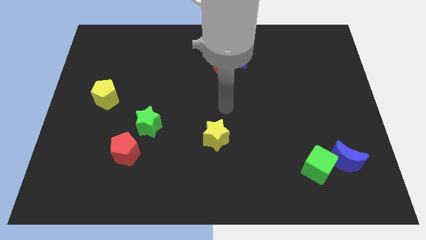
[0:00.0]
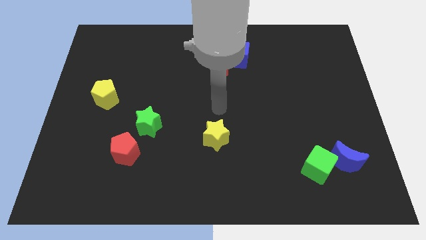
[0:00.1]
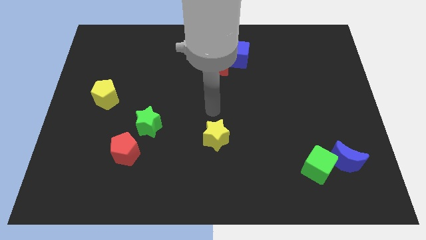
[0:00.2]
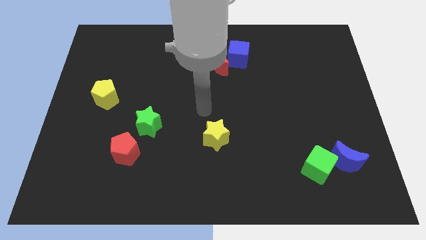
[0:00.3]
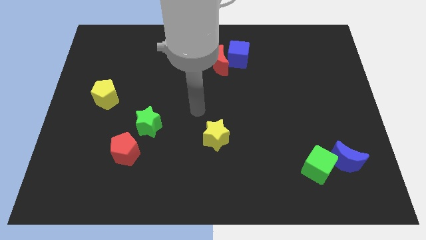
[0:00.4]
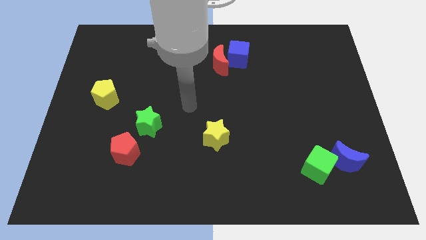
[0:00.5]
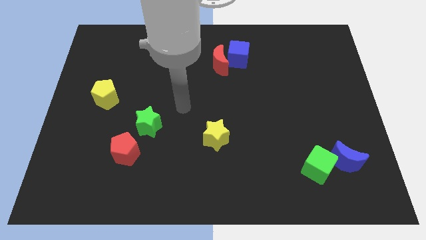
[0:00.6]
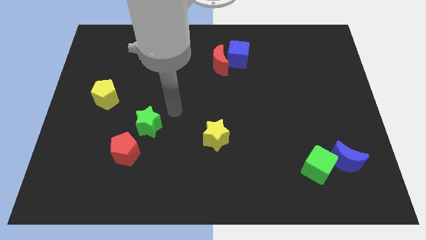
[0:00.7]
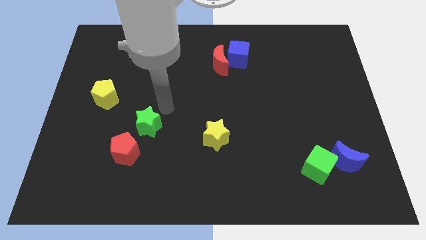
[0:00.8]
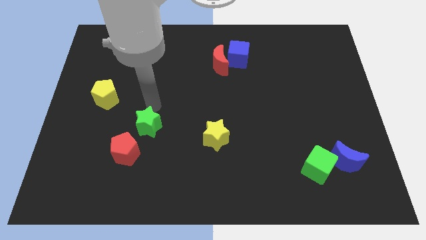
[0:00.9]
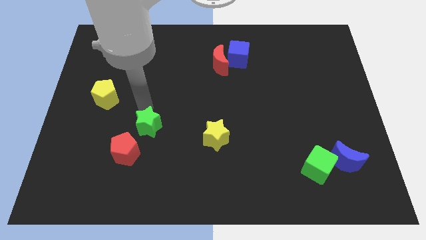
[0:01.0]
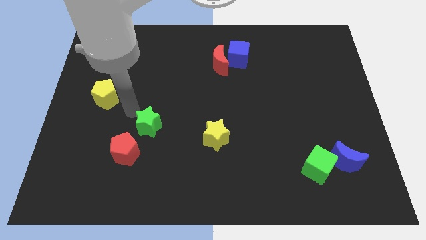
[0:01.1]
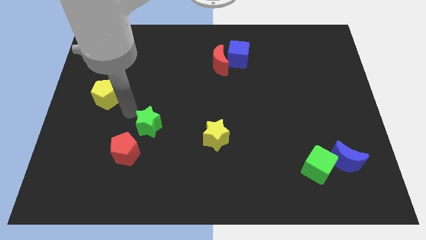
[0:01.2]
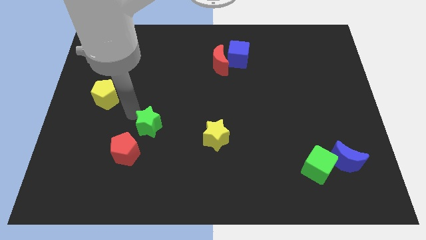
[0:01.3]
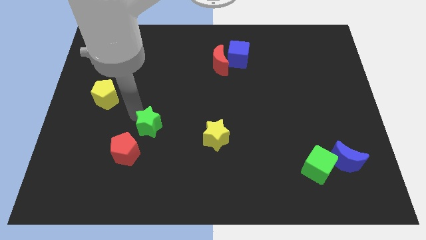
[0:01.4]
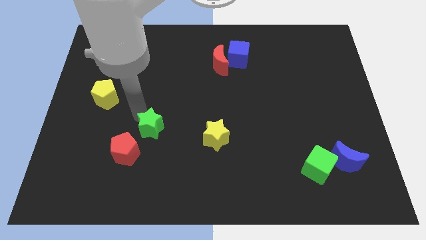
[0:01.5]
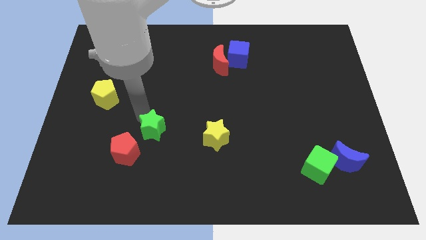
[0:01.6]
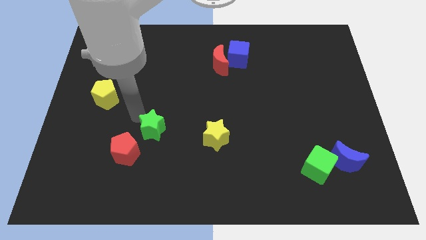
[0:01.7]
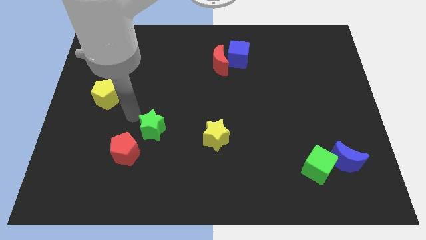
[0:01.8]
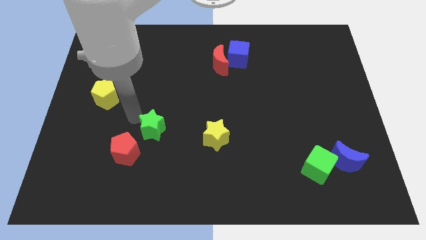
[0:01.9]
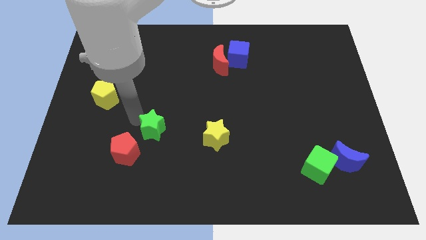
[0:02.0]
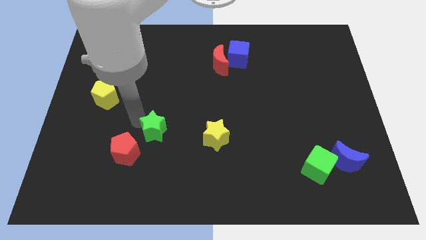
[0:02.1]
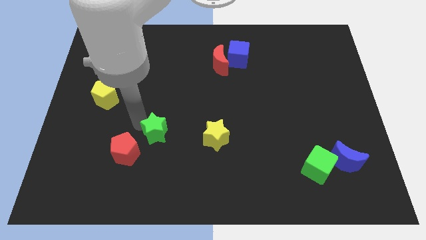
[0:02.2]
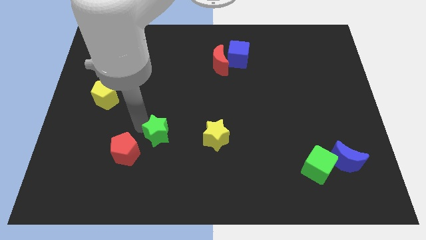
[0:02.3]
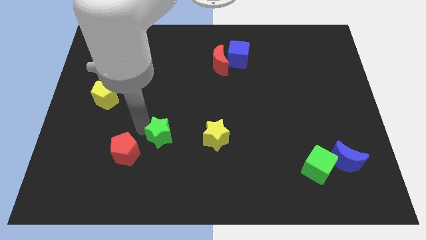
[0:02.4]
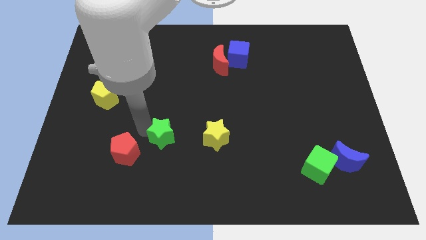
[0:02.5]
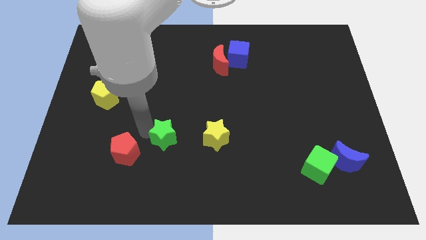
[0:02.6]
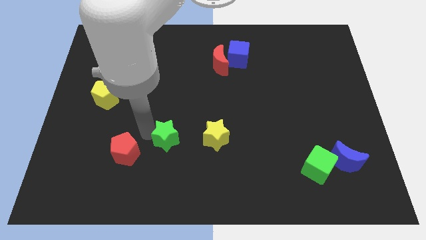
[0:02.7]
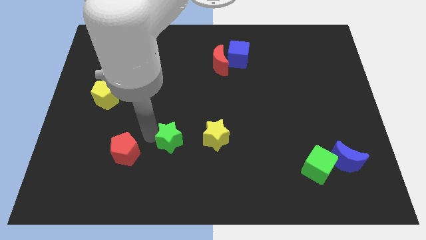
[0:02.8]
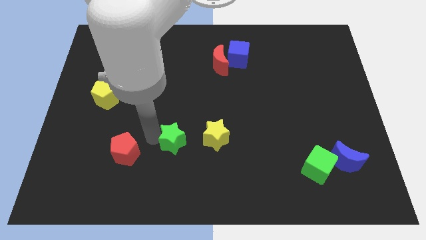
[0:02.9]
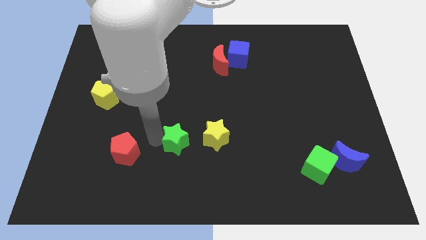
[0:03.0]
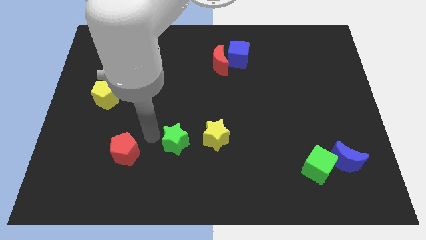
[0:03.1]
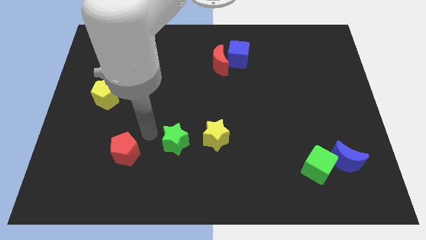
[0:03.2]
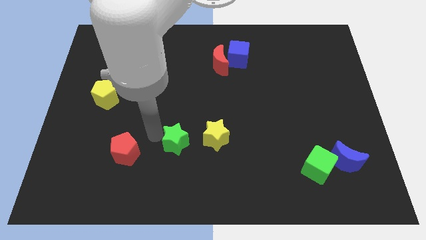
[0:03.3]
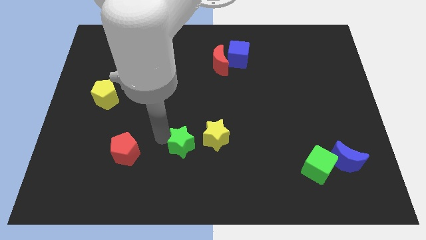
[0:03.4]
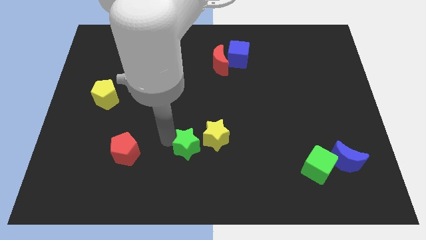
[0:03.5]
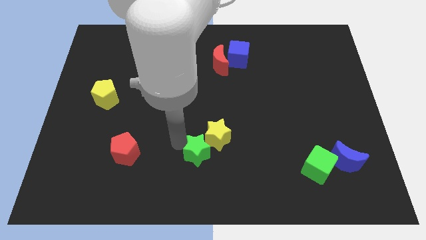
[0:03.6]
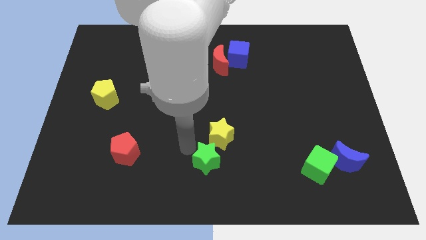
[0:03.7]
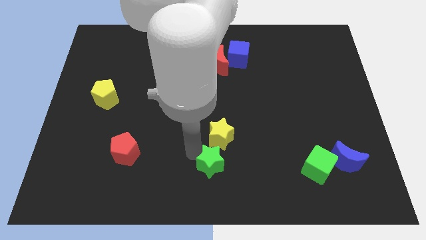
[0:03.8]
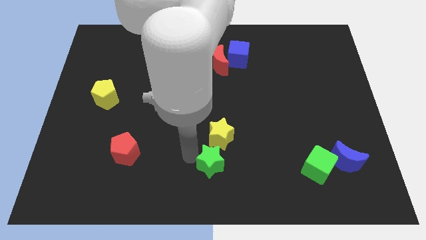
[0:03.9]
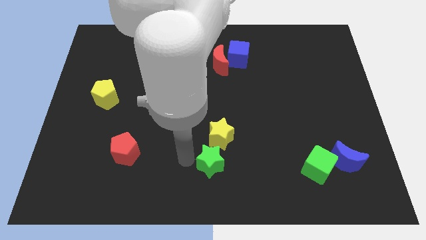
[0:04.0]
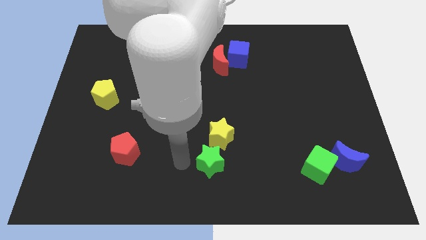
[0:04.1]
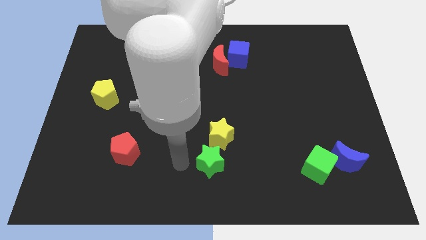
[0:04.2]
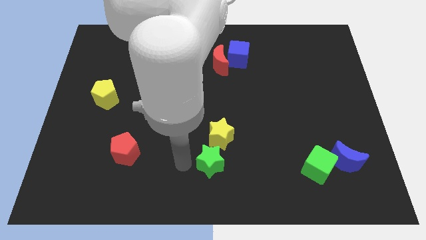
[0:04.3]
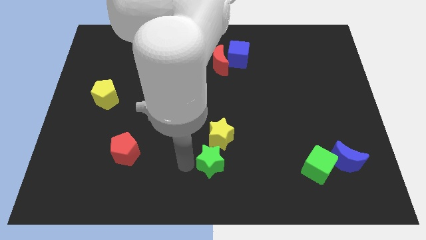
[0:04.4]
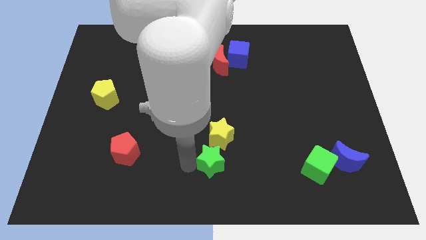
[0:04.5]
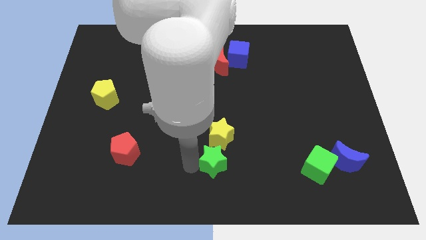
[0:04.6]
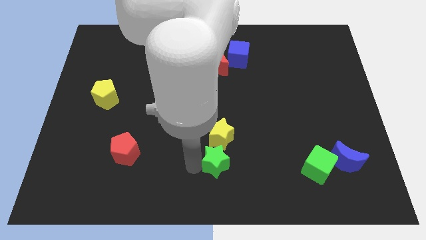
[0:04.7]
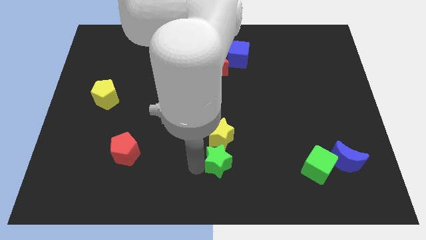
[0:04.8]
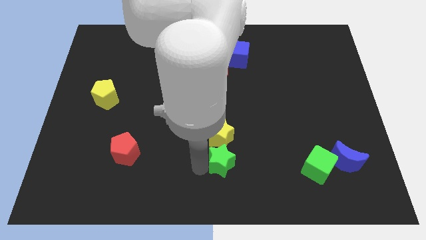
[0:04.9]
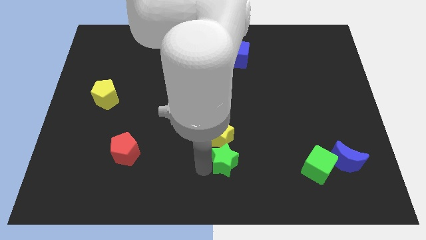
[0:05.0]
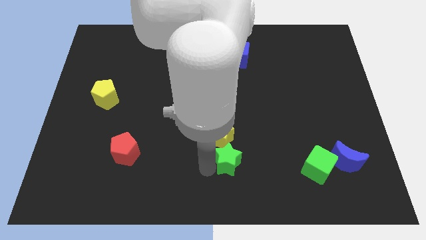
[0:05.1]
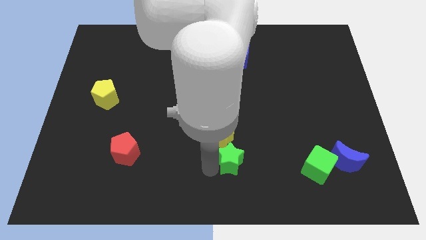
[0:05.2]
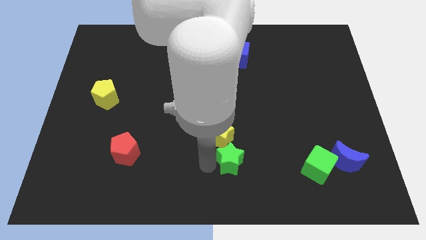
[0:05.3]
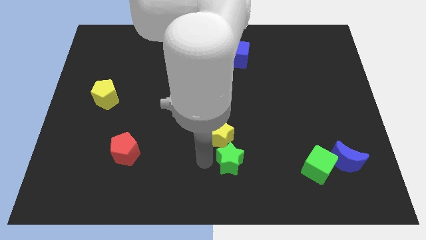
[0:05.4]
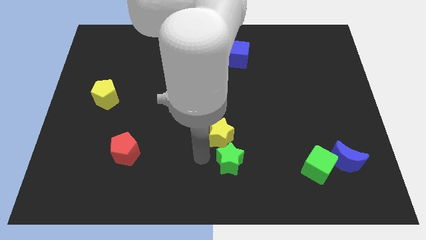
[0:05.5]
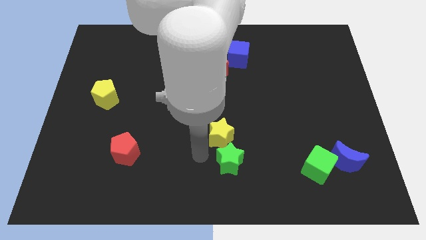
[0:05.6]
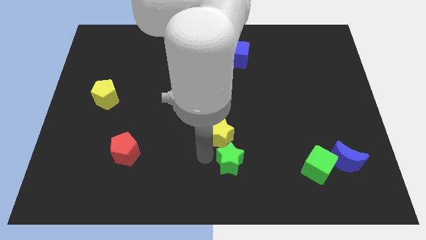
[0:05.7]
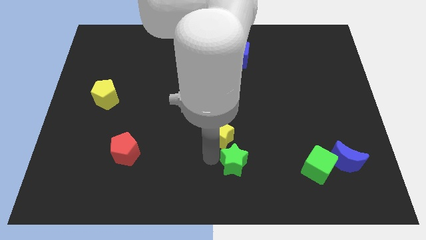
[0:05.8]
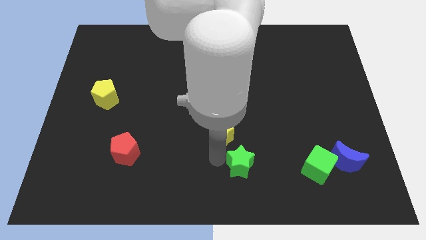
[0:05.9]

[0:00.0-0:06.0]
push the green star left of the green cube
